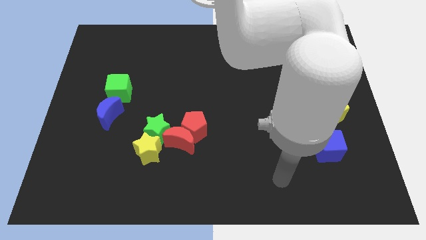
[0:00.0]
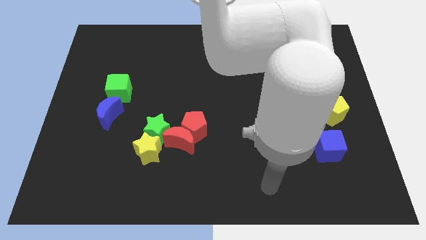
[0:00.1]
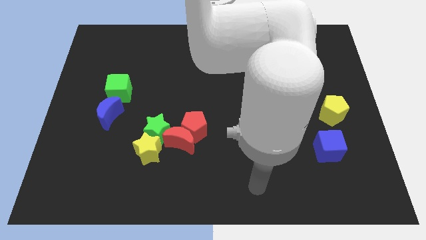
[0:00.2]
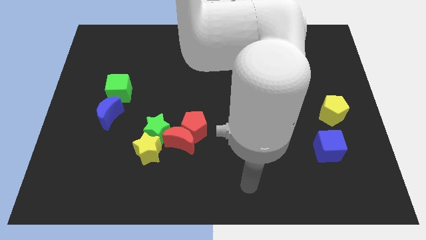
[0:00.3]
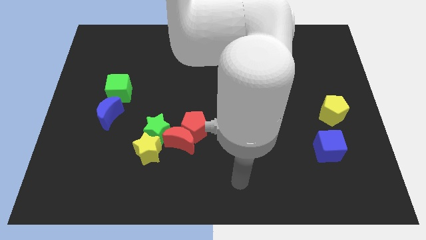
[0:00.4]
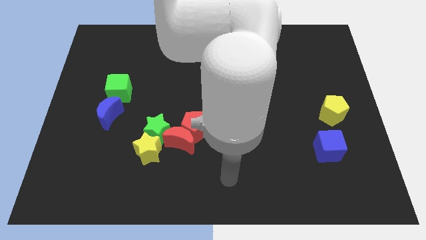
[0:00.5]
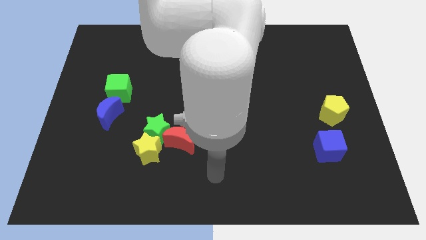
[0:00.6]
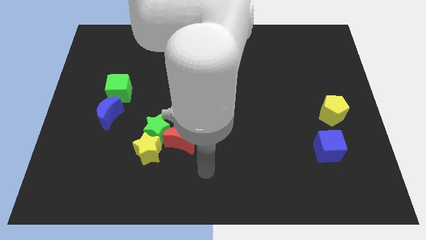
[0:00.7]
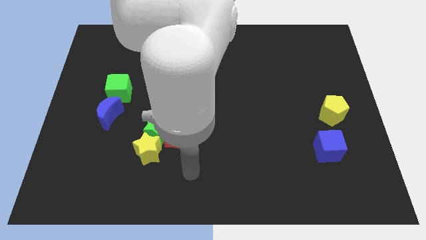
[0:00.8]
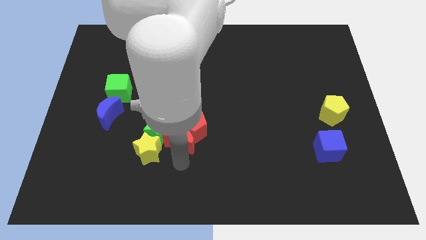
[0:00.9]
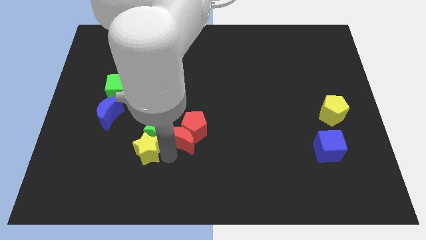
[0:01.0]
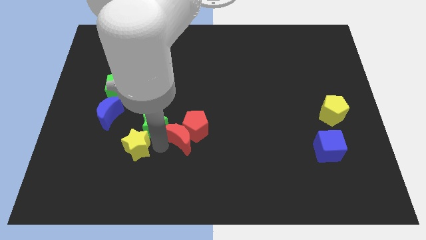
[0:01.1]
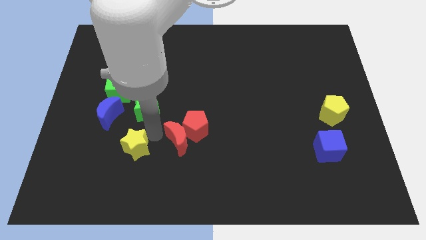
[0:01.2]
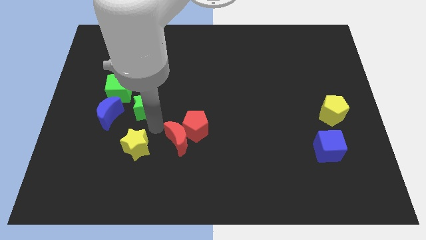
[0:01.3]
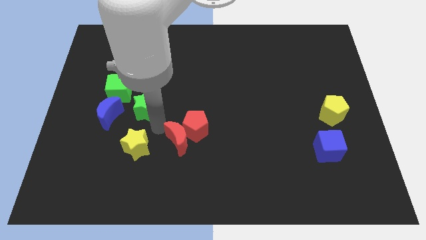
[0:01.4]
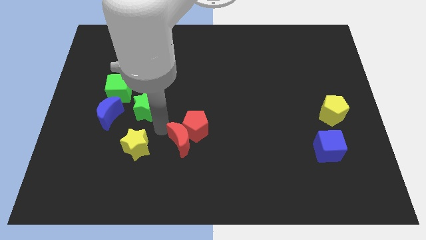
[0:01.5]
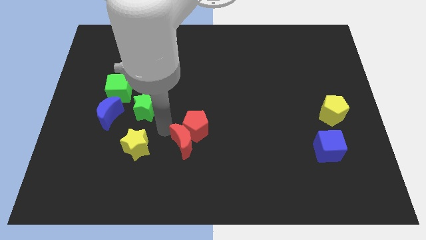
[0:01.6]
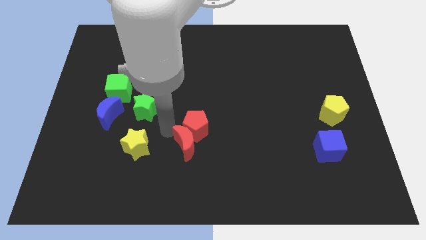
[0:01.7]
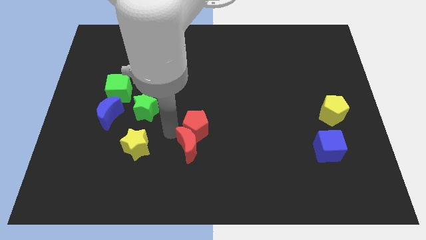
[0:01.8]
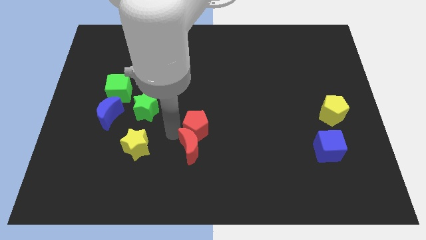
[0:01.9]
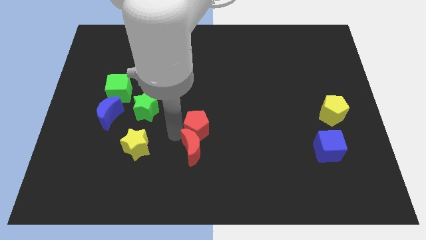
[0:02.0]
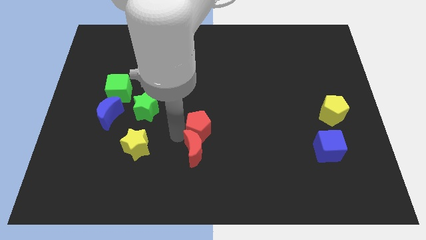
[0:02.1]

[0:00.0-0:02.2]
move the red moon away from the group of blocks

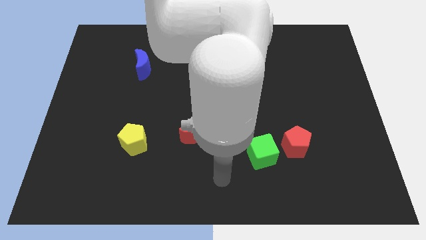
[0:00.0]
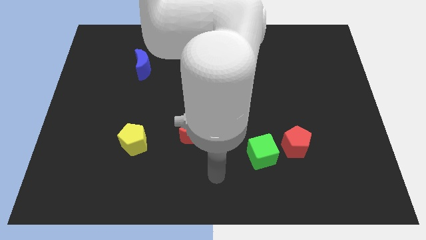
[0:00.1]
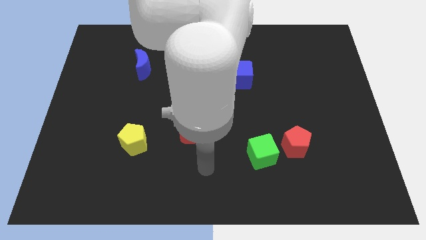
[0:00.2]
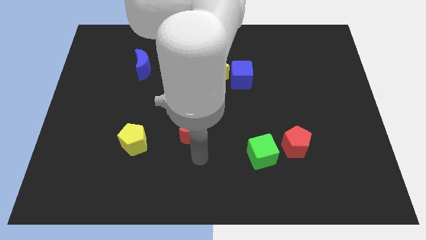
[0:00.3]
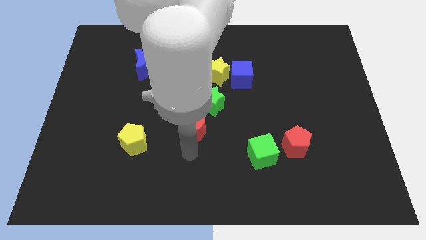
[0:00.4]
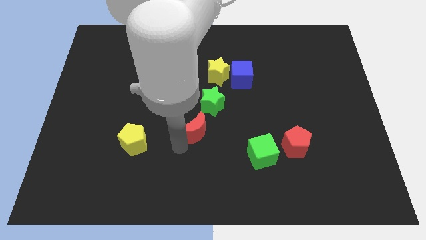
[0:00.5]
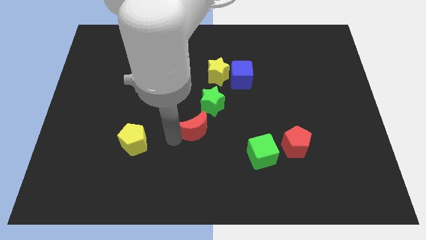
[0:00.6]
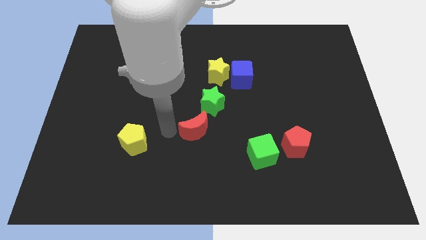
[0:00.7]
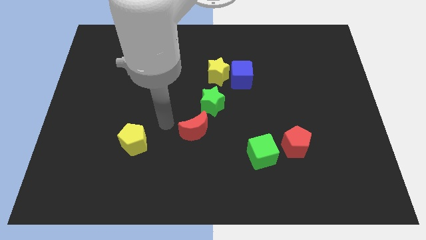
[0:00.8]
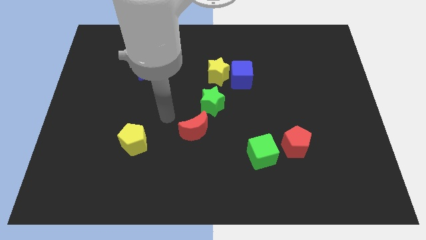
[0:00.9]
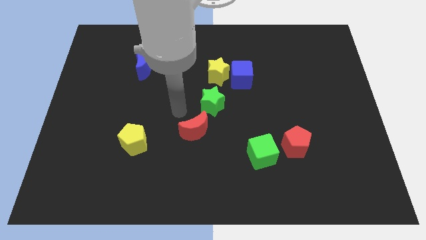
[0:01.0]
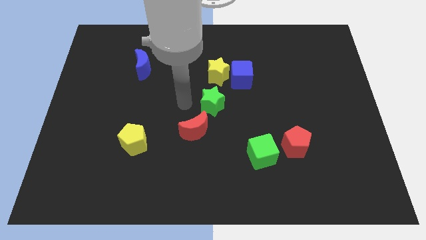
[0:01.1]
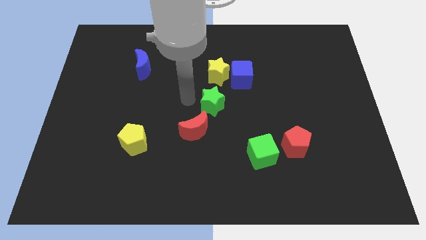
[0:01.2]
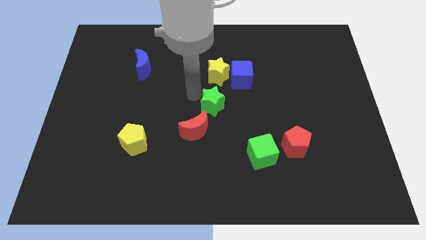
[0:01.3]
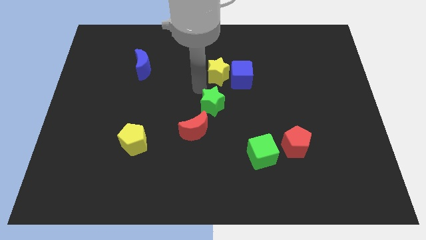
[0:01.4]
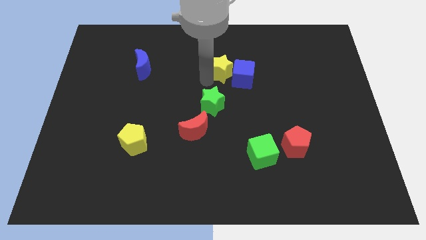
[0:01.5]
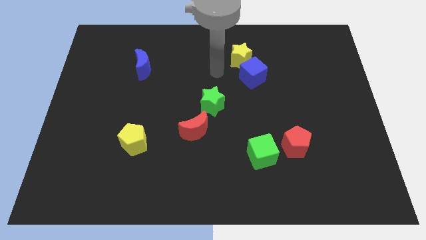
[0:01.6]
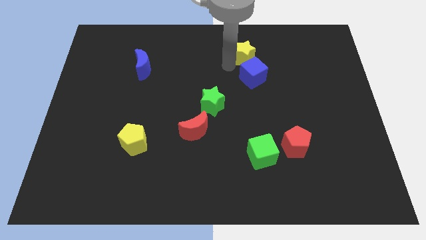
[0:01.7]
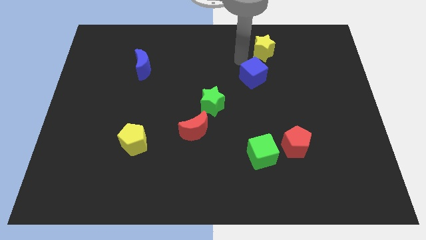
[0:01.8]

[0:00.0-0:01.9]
move the blue cube away from the yellow star

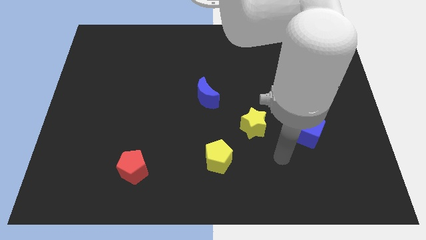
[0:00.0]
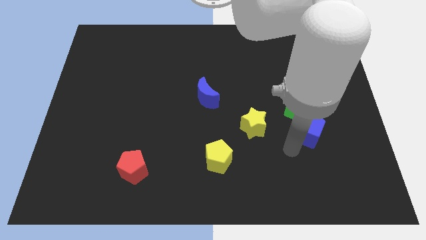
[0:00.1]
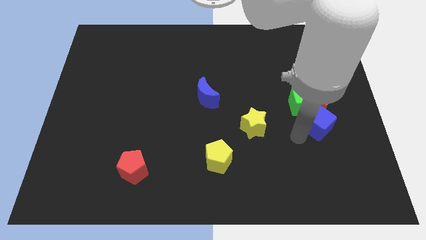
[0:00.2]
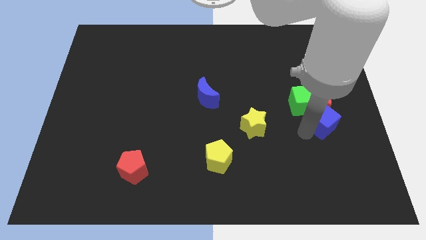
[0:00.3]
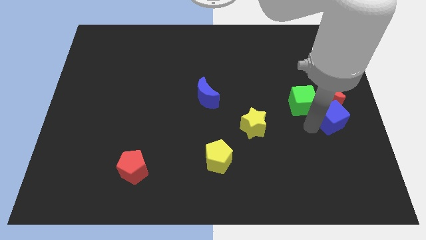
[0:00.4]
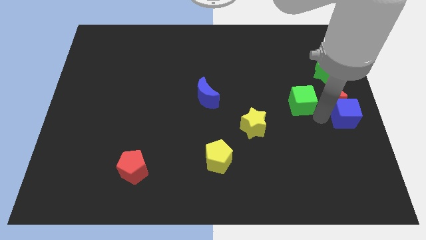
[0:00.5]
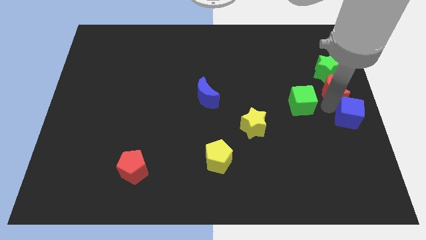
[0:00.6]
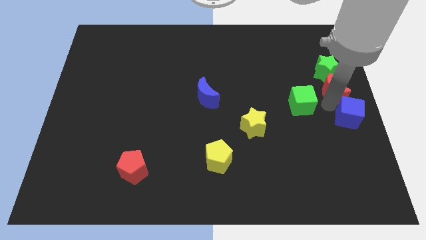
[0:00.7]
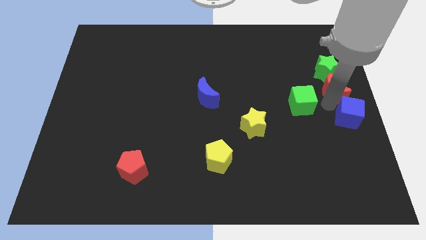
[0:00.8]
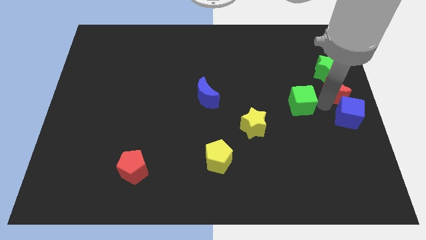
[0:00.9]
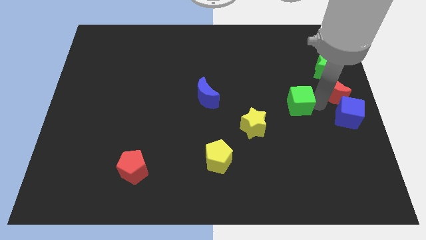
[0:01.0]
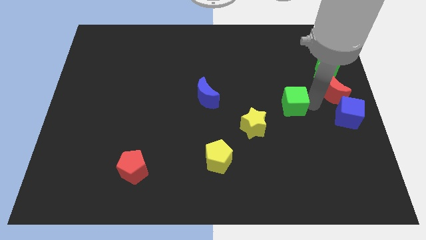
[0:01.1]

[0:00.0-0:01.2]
pull the green cube apart from the red moon and blue cube

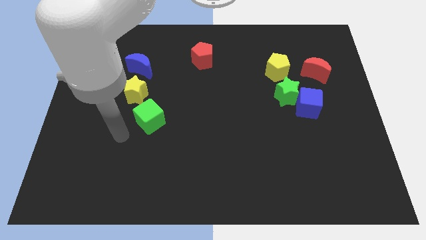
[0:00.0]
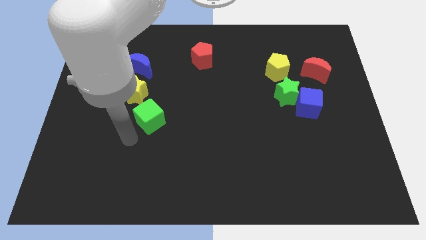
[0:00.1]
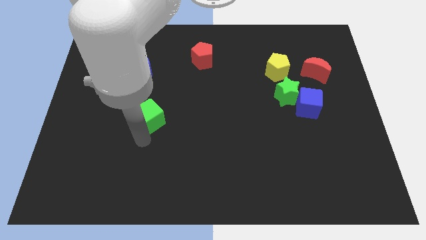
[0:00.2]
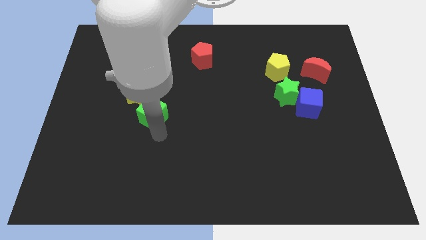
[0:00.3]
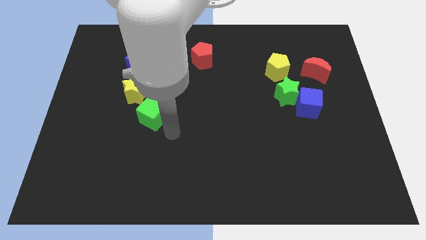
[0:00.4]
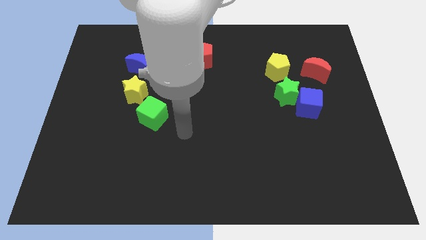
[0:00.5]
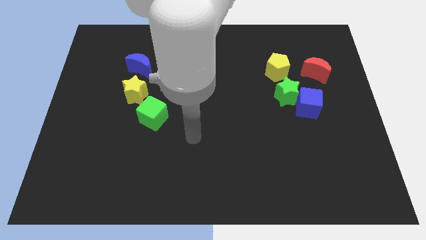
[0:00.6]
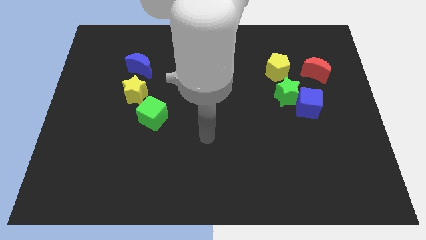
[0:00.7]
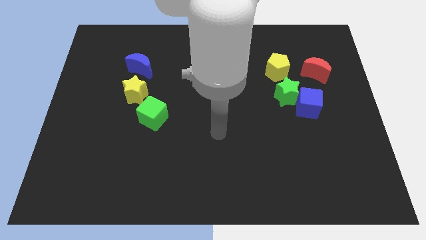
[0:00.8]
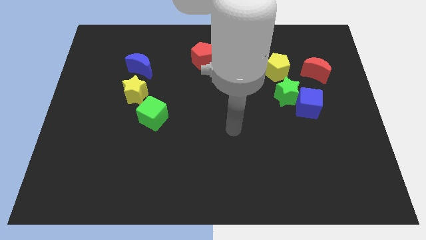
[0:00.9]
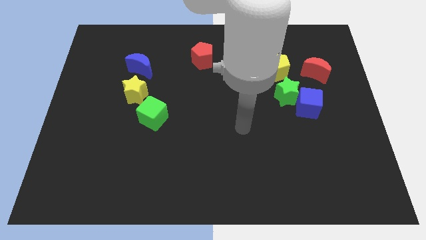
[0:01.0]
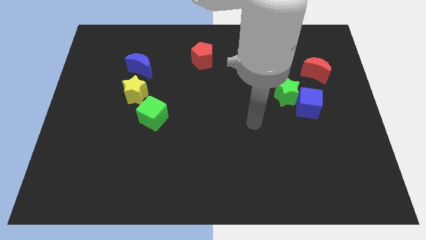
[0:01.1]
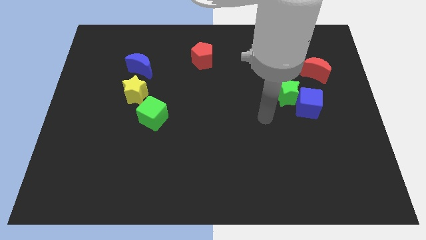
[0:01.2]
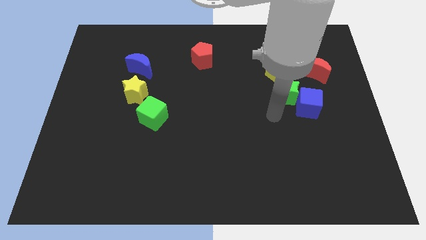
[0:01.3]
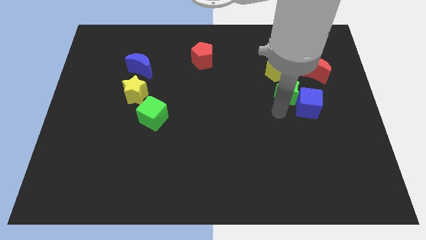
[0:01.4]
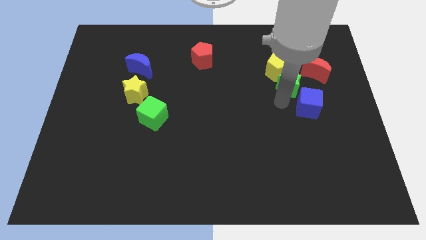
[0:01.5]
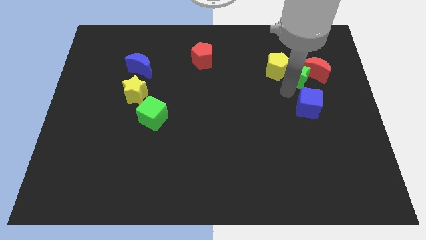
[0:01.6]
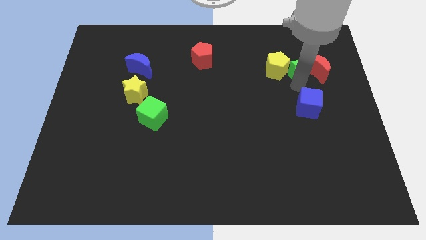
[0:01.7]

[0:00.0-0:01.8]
pull the blue cube apart from the green star

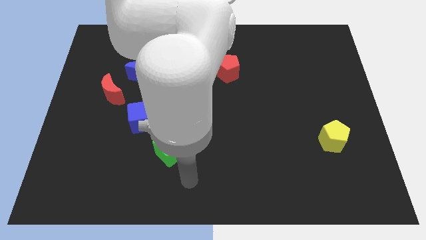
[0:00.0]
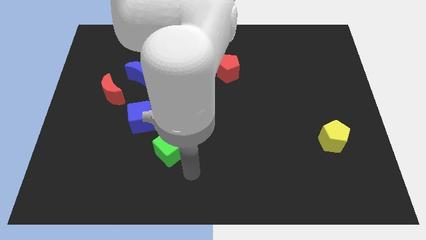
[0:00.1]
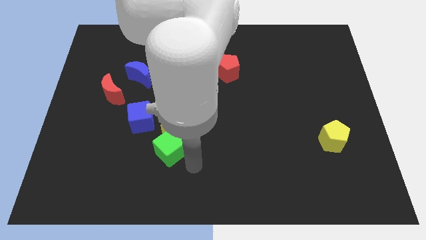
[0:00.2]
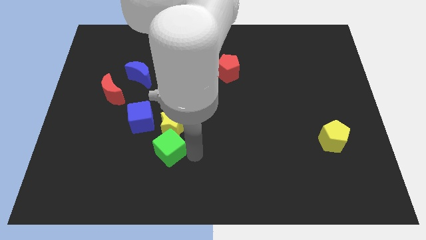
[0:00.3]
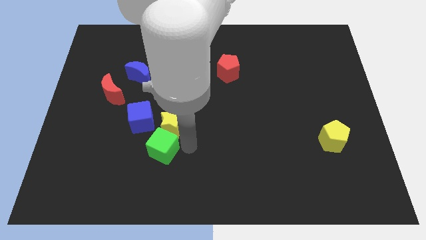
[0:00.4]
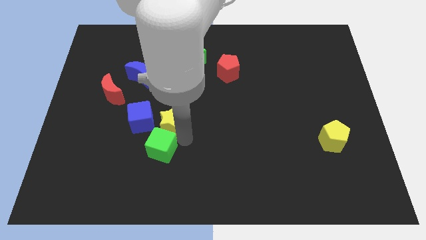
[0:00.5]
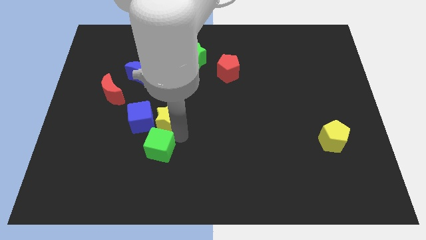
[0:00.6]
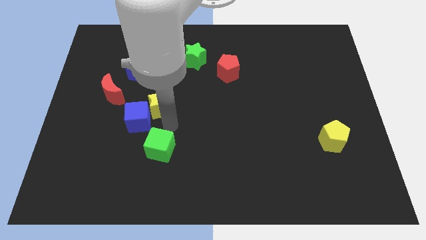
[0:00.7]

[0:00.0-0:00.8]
pull the green cube apart from the yellow star

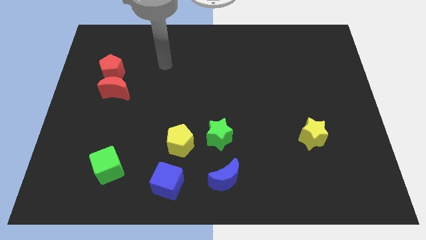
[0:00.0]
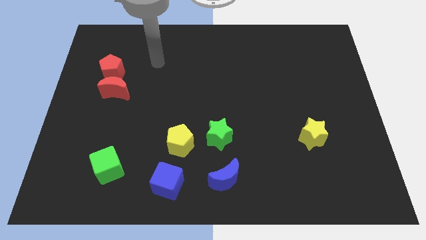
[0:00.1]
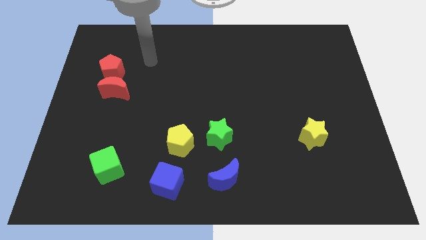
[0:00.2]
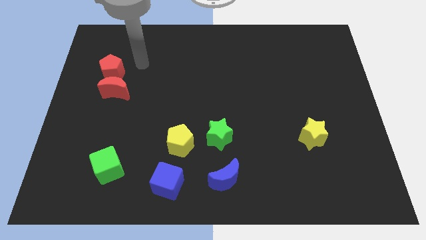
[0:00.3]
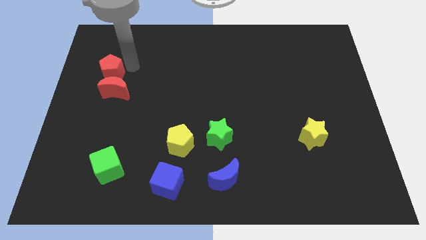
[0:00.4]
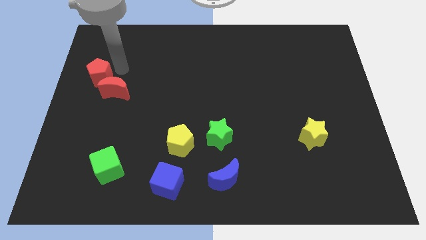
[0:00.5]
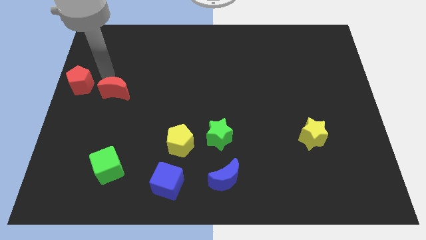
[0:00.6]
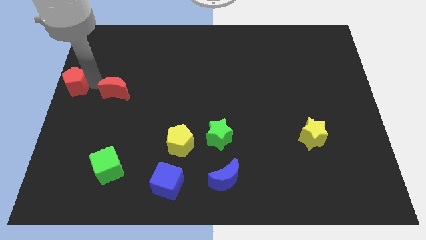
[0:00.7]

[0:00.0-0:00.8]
move the red moon away from the red pentagon

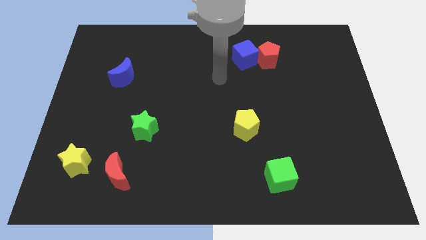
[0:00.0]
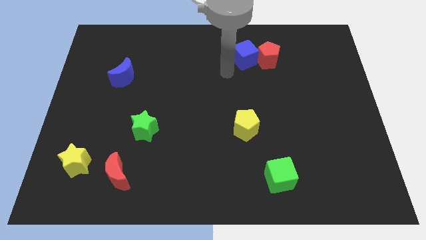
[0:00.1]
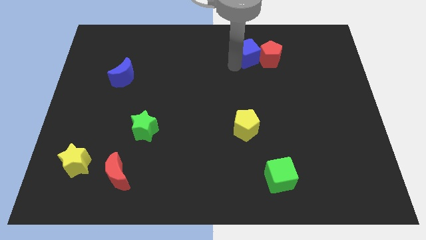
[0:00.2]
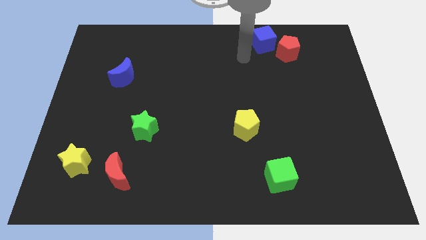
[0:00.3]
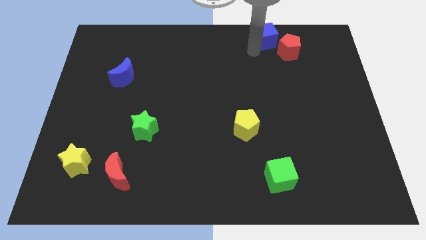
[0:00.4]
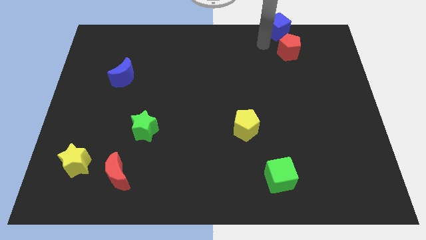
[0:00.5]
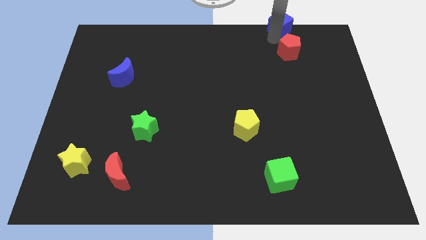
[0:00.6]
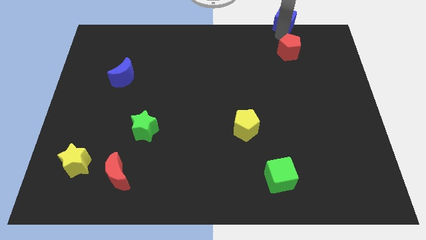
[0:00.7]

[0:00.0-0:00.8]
move the red pentagon away from the blue cube
